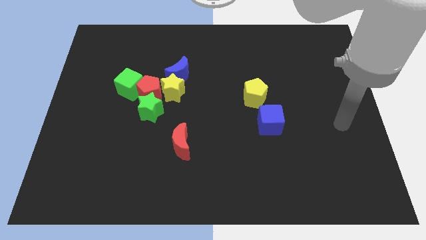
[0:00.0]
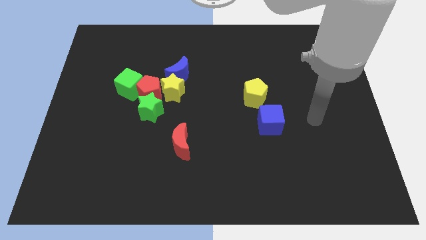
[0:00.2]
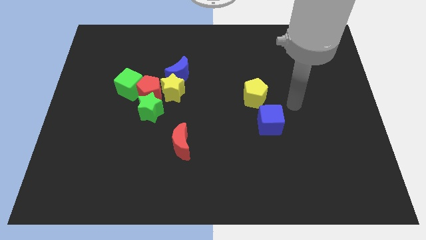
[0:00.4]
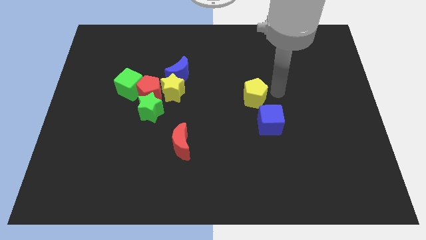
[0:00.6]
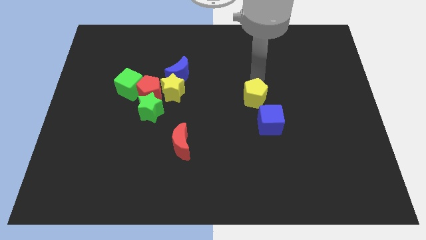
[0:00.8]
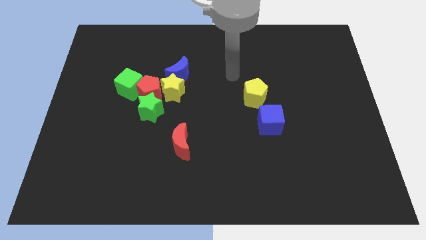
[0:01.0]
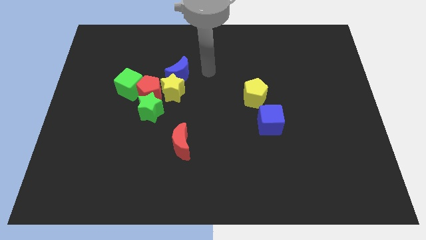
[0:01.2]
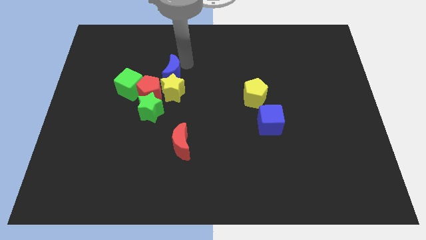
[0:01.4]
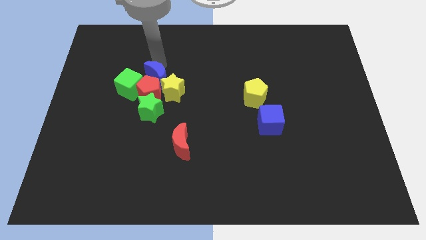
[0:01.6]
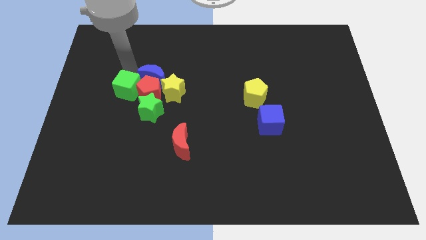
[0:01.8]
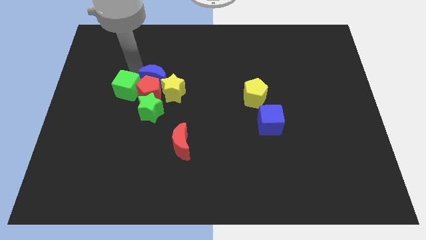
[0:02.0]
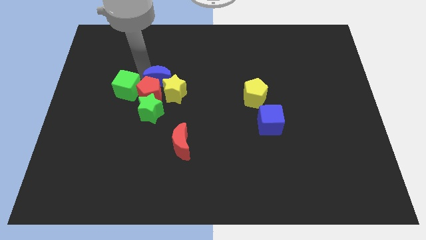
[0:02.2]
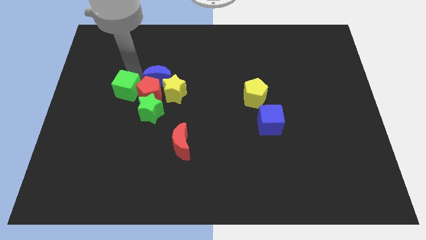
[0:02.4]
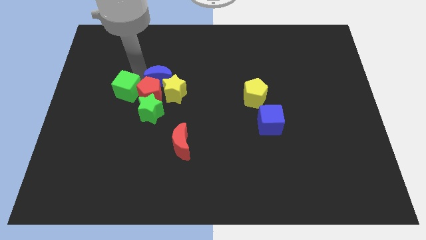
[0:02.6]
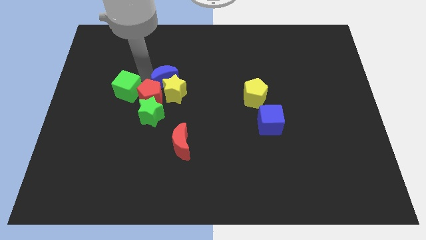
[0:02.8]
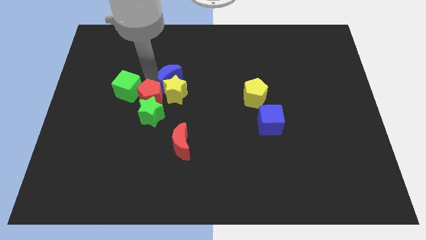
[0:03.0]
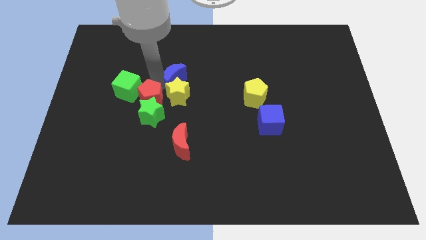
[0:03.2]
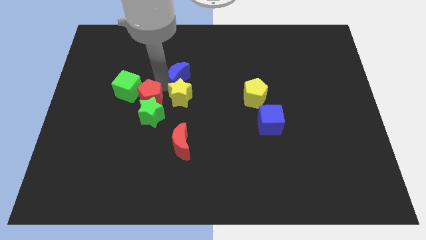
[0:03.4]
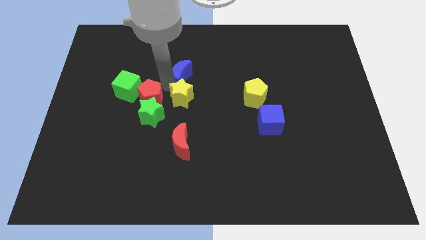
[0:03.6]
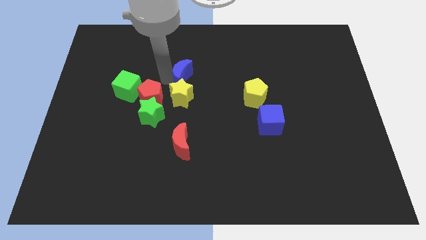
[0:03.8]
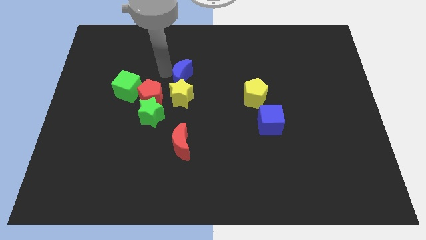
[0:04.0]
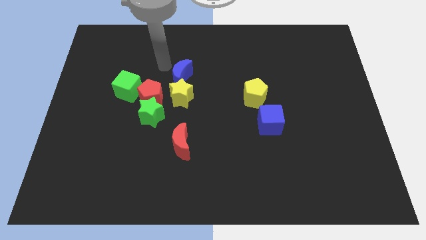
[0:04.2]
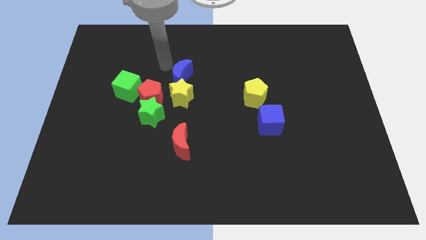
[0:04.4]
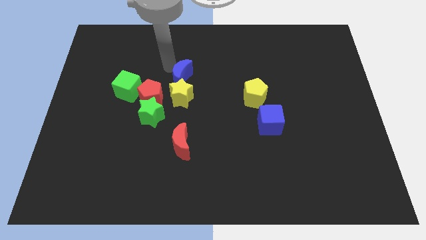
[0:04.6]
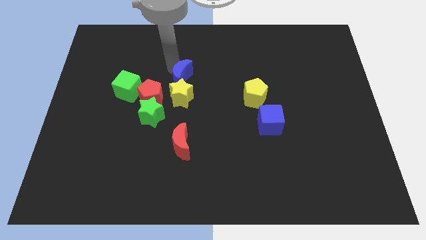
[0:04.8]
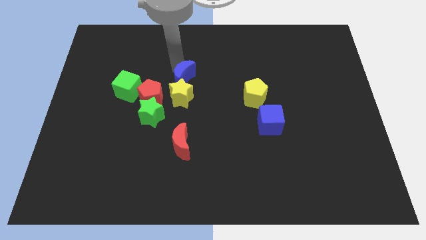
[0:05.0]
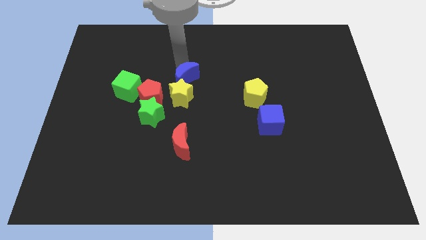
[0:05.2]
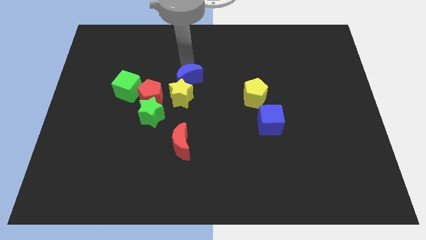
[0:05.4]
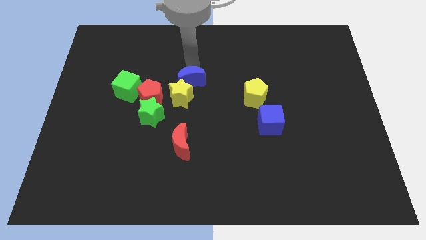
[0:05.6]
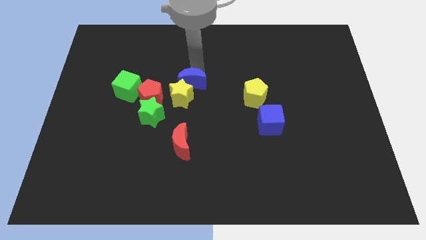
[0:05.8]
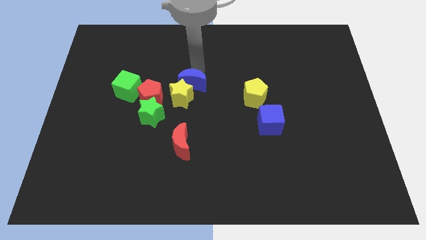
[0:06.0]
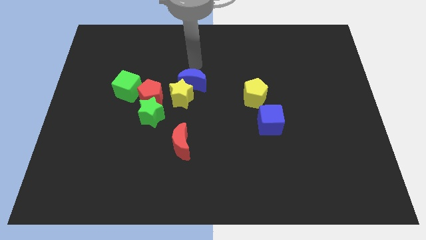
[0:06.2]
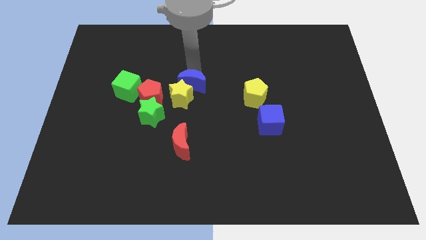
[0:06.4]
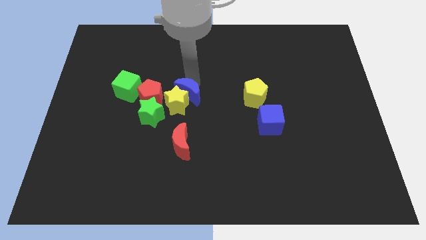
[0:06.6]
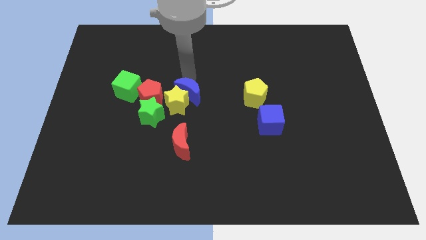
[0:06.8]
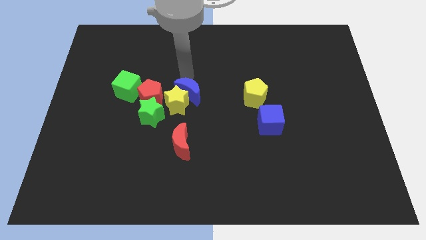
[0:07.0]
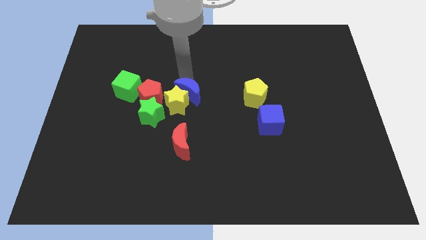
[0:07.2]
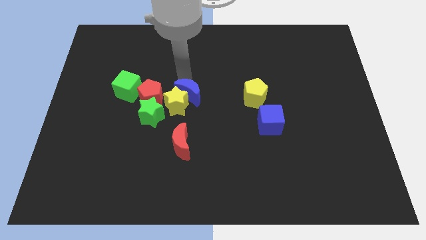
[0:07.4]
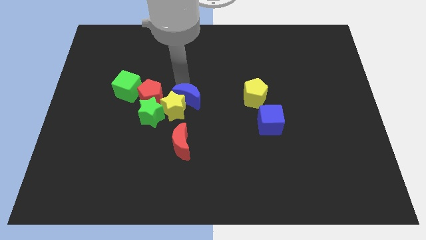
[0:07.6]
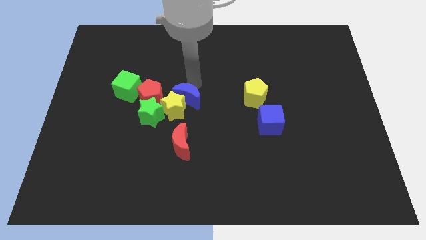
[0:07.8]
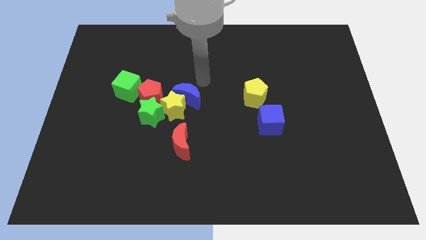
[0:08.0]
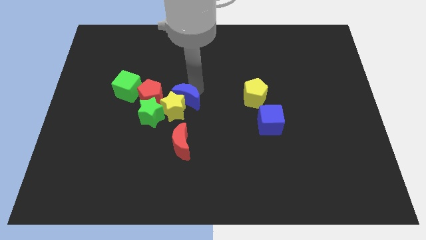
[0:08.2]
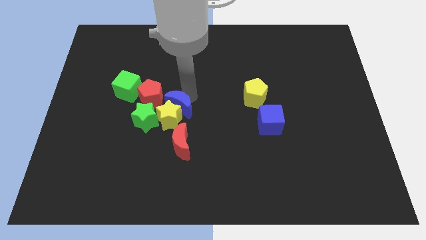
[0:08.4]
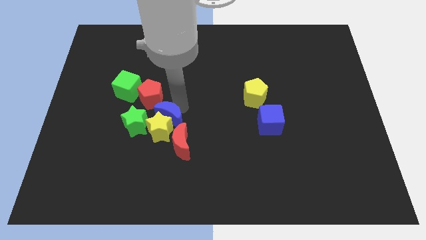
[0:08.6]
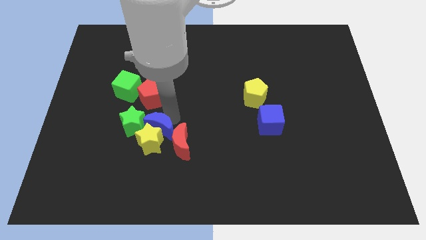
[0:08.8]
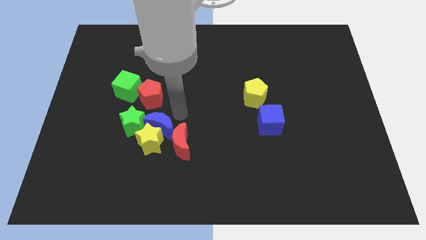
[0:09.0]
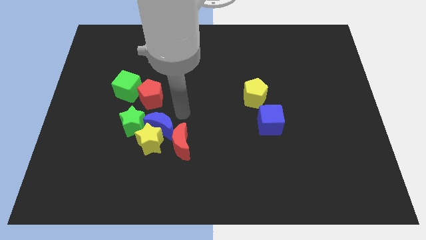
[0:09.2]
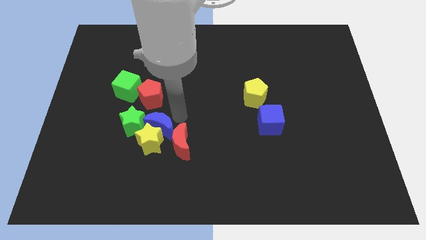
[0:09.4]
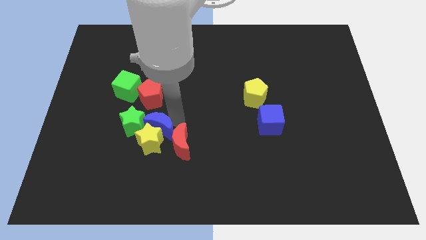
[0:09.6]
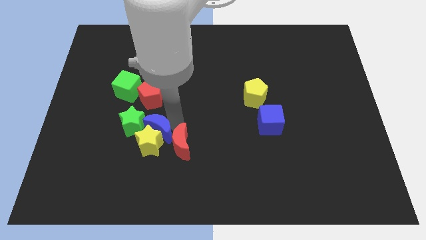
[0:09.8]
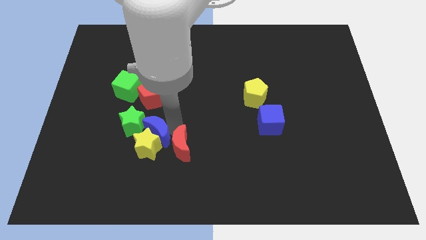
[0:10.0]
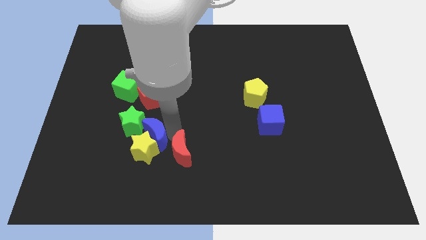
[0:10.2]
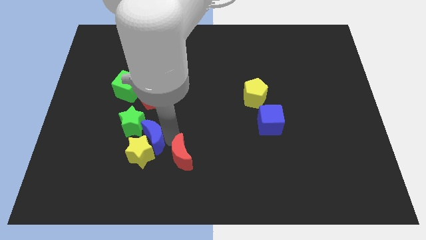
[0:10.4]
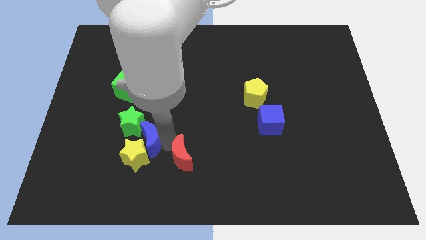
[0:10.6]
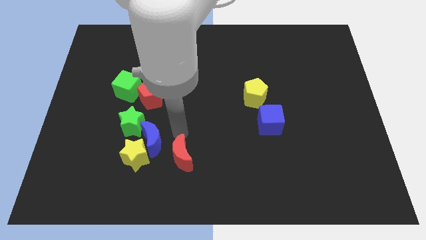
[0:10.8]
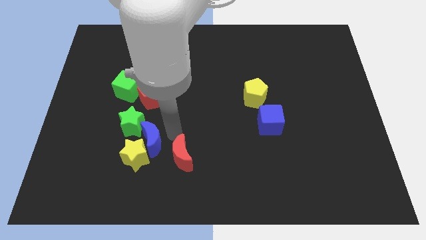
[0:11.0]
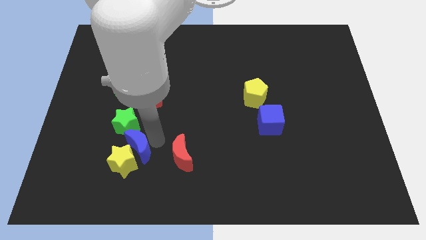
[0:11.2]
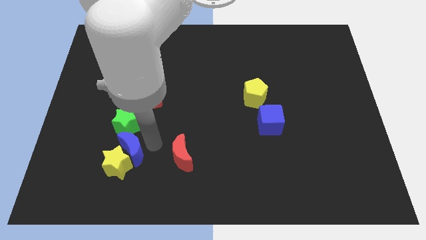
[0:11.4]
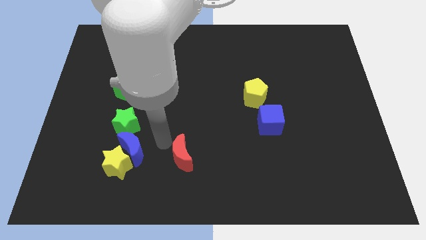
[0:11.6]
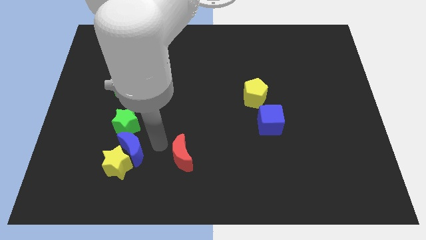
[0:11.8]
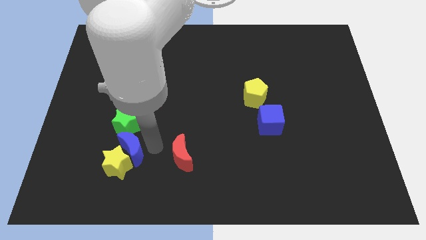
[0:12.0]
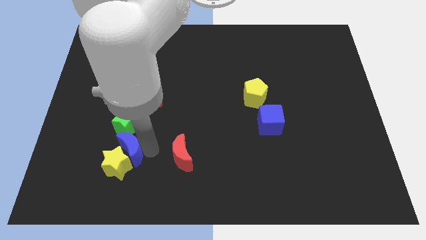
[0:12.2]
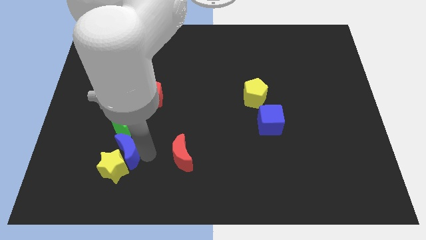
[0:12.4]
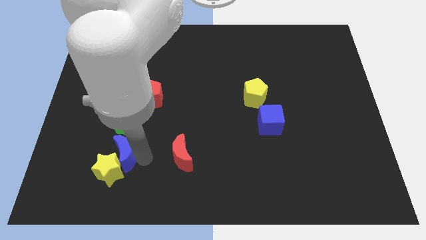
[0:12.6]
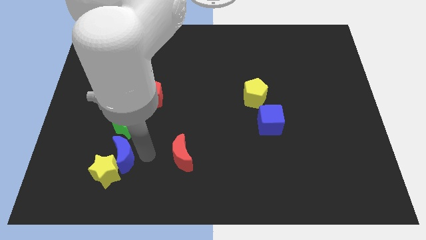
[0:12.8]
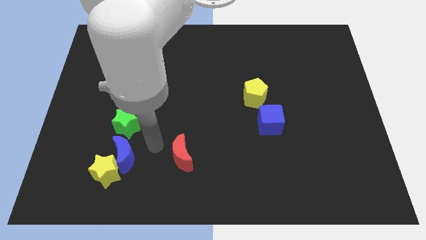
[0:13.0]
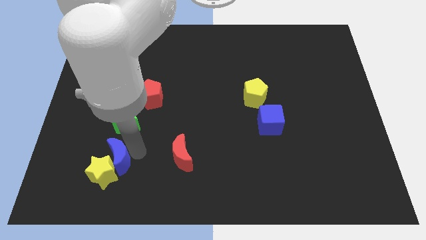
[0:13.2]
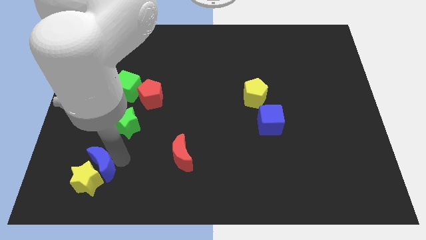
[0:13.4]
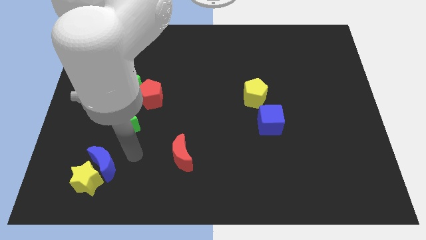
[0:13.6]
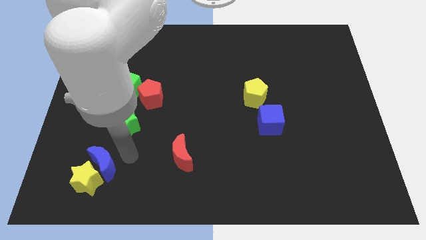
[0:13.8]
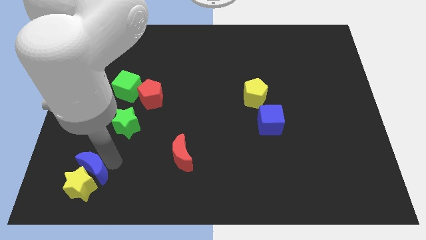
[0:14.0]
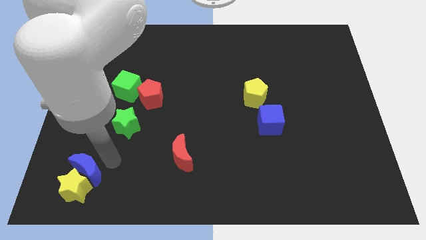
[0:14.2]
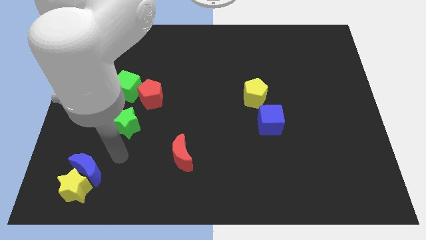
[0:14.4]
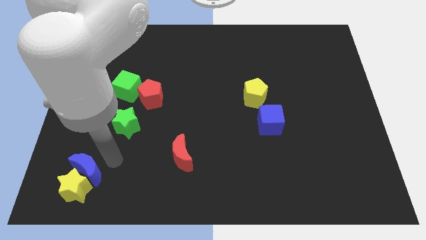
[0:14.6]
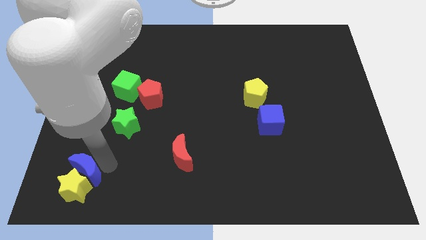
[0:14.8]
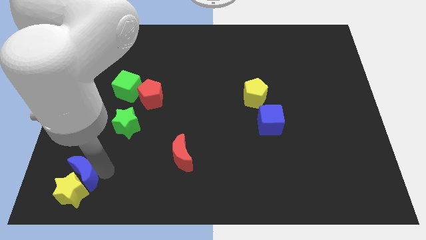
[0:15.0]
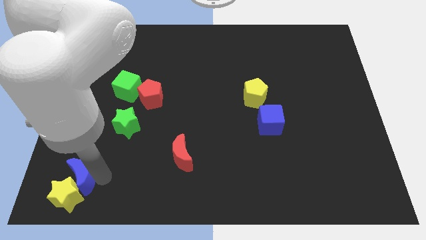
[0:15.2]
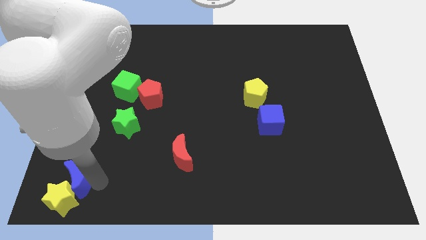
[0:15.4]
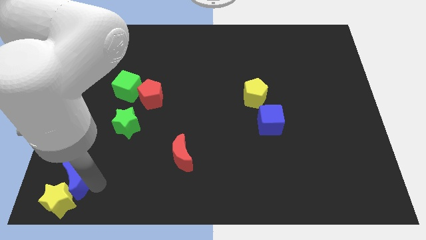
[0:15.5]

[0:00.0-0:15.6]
slide the blue moon to the bottom left

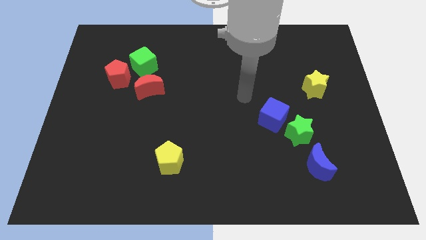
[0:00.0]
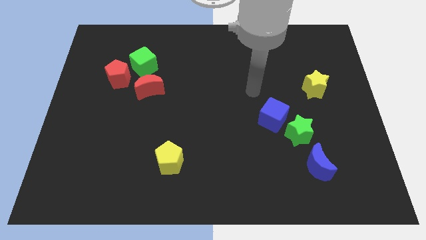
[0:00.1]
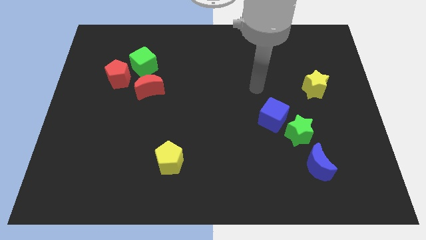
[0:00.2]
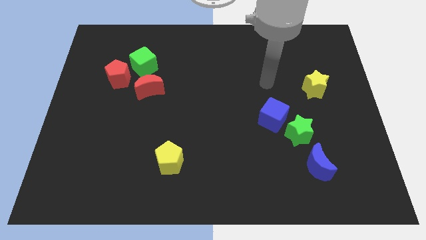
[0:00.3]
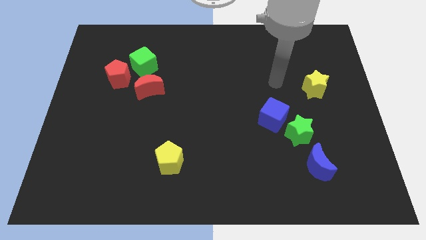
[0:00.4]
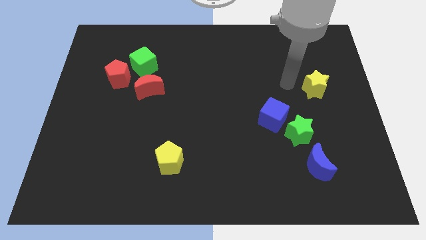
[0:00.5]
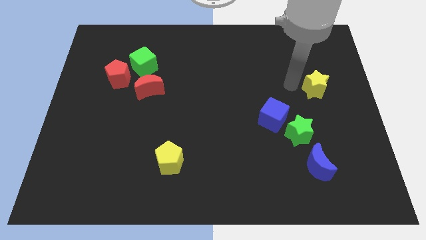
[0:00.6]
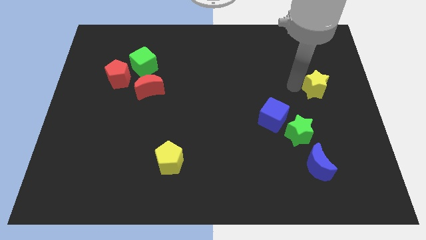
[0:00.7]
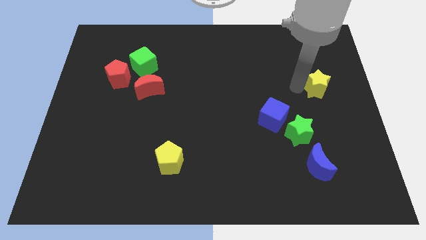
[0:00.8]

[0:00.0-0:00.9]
push the yellow star to the center right
